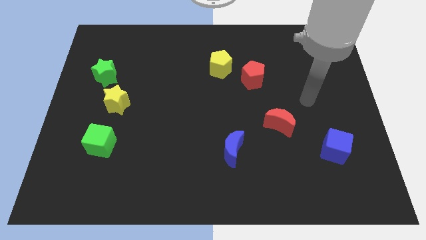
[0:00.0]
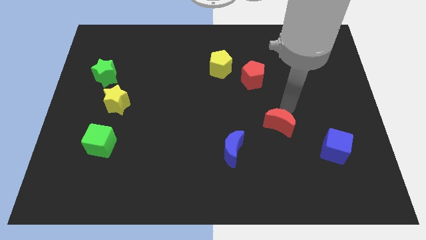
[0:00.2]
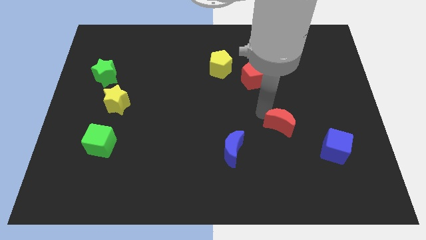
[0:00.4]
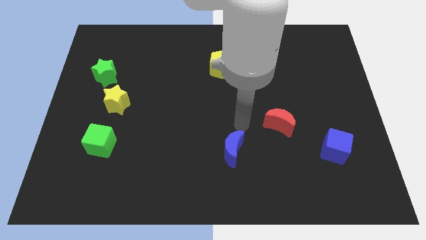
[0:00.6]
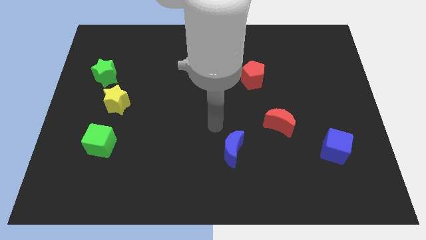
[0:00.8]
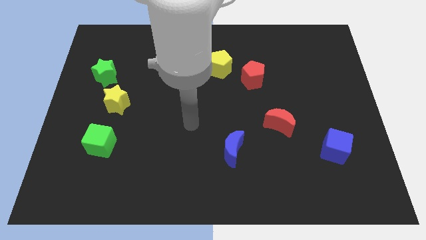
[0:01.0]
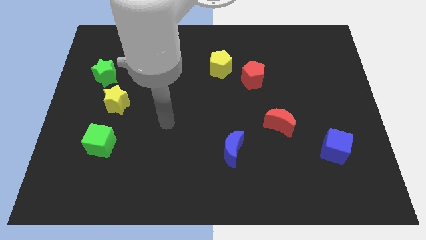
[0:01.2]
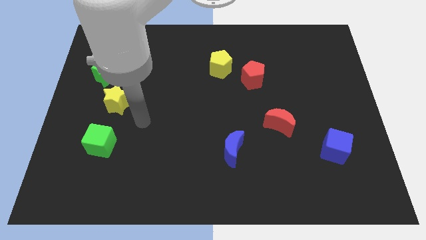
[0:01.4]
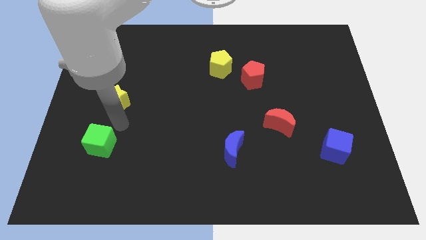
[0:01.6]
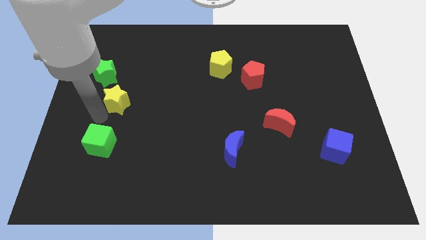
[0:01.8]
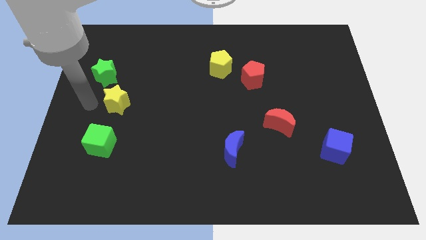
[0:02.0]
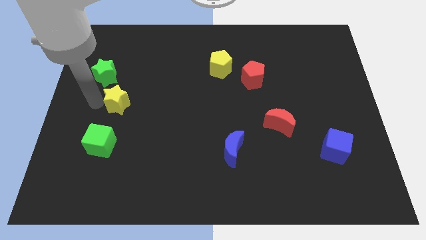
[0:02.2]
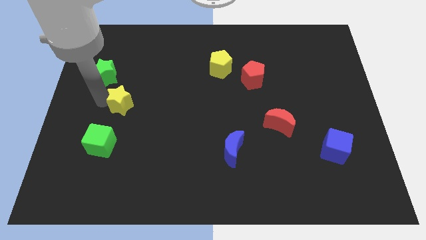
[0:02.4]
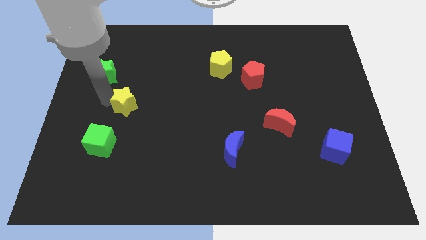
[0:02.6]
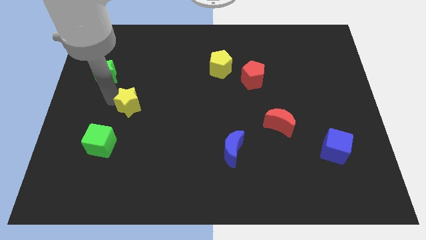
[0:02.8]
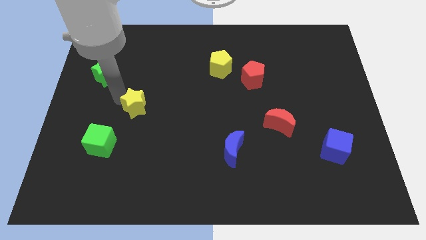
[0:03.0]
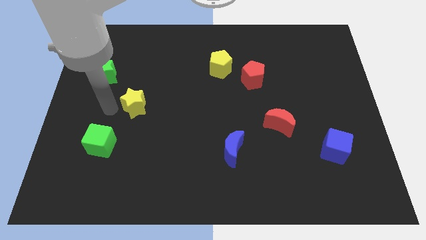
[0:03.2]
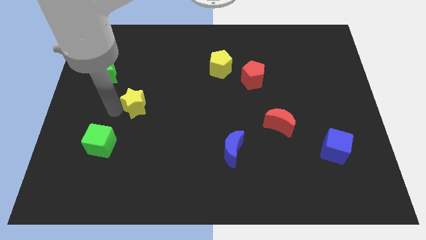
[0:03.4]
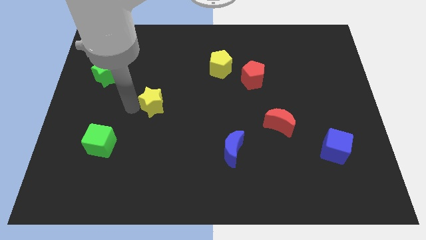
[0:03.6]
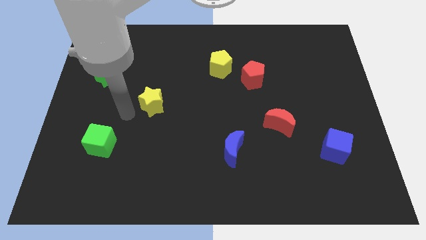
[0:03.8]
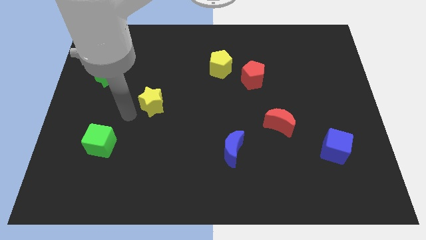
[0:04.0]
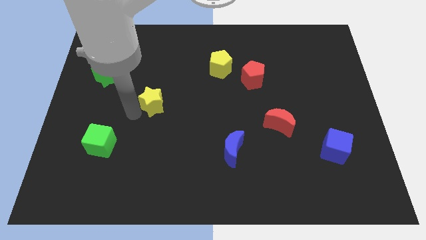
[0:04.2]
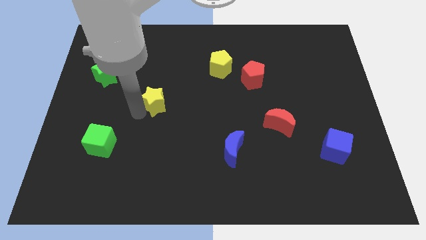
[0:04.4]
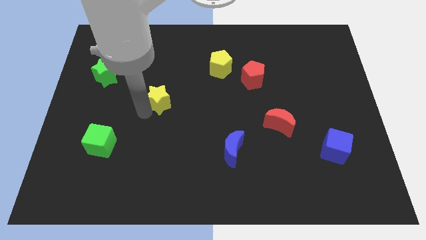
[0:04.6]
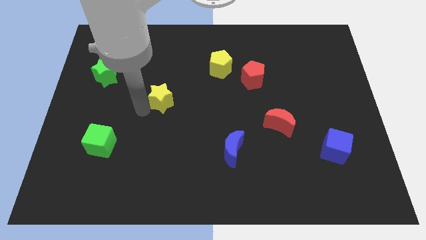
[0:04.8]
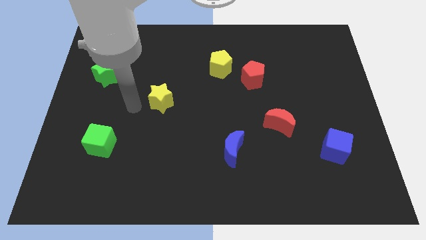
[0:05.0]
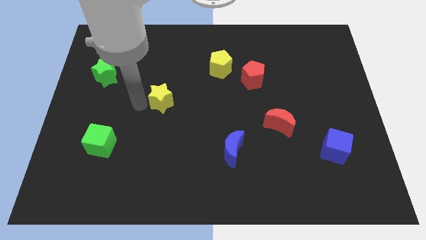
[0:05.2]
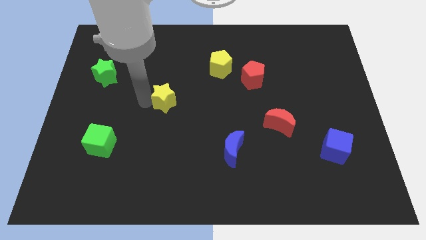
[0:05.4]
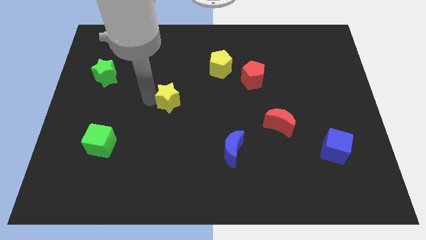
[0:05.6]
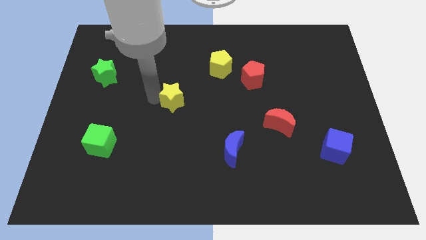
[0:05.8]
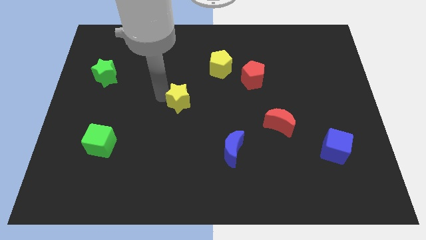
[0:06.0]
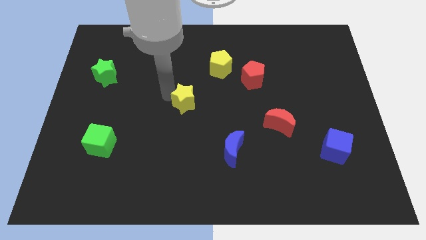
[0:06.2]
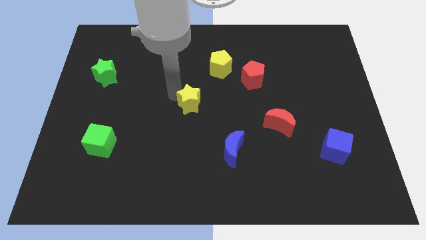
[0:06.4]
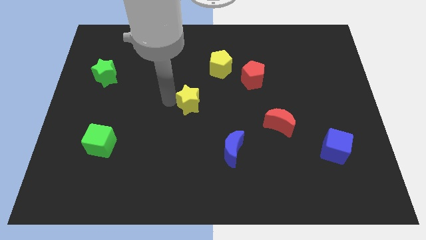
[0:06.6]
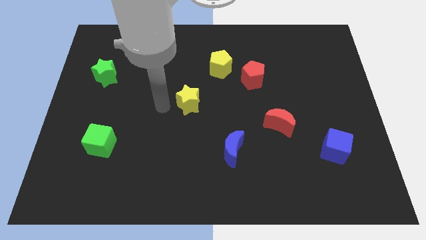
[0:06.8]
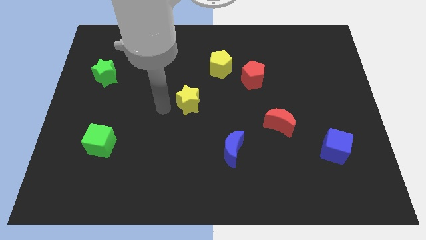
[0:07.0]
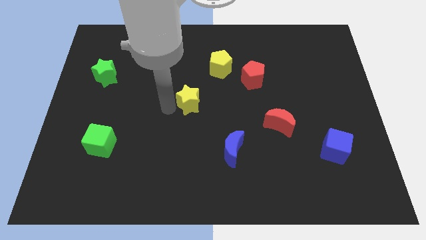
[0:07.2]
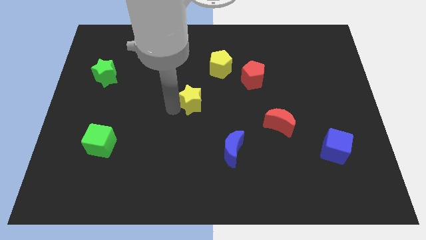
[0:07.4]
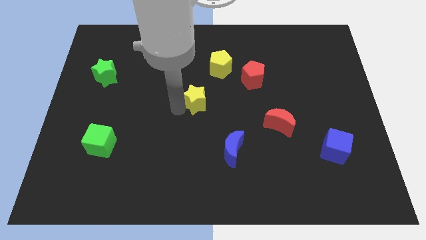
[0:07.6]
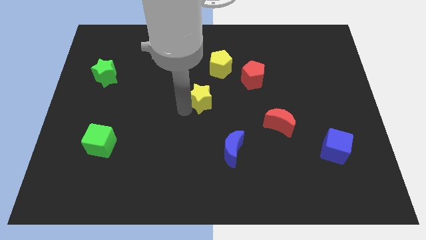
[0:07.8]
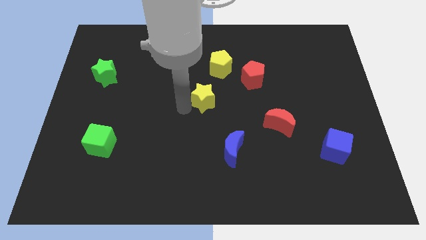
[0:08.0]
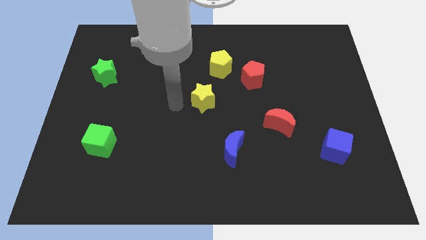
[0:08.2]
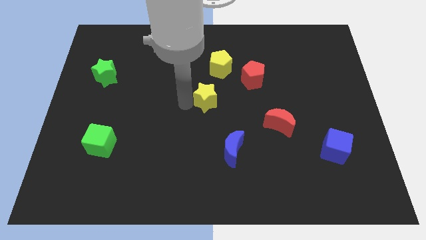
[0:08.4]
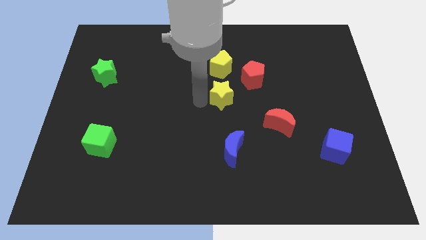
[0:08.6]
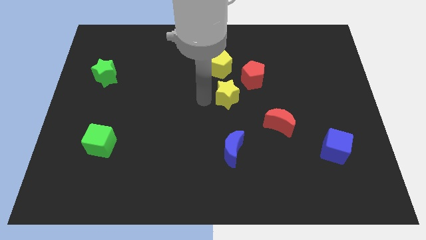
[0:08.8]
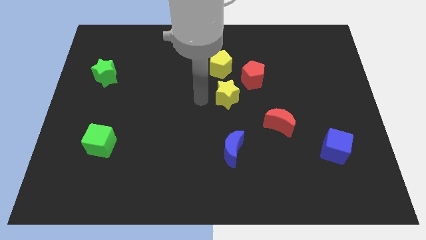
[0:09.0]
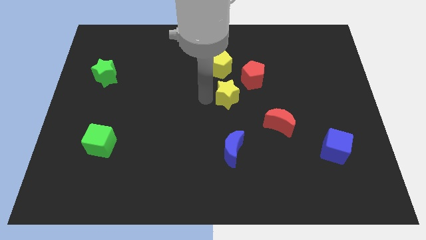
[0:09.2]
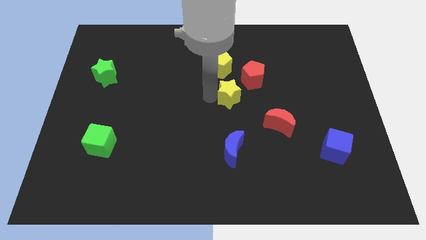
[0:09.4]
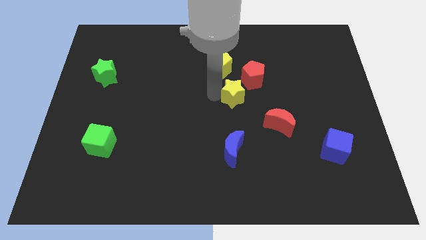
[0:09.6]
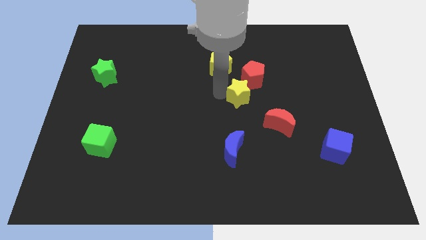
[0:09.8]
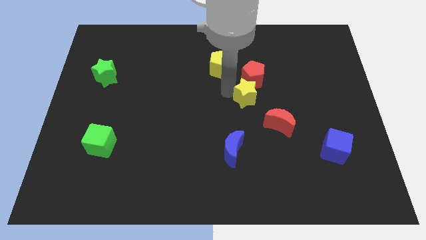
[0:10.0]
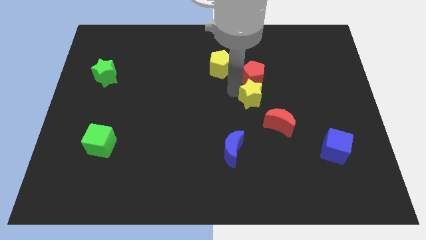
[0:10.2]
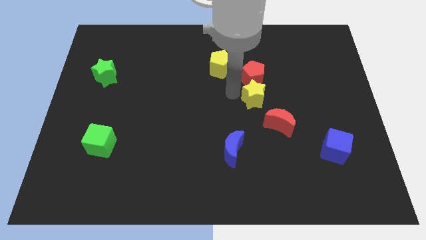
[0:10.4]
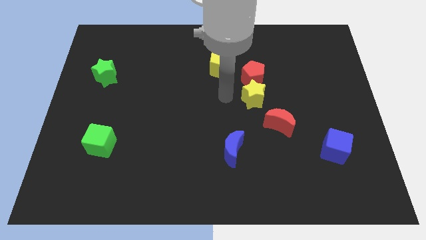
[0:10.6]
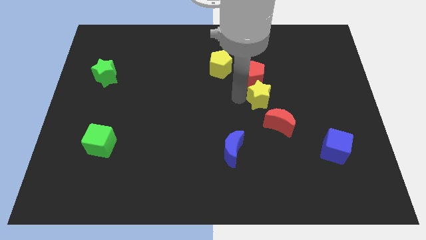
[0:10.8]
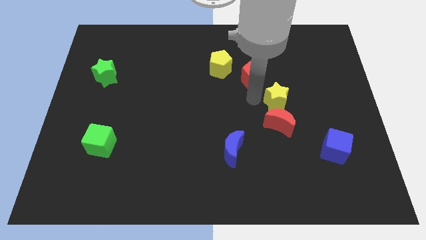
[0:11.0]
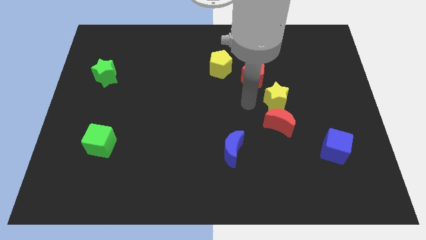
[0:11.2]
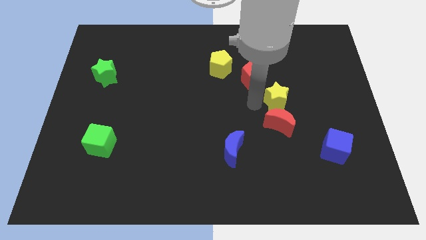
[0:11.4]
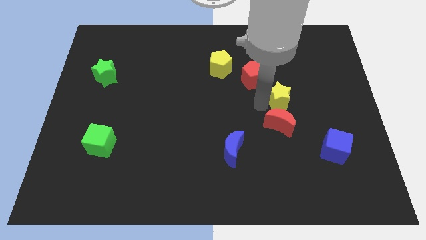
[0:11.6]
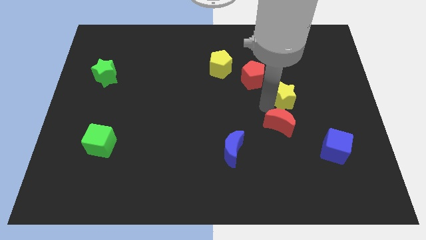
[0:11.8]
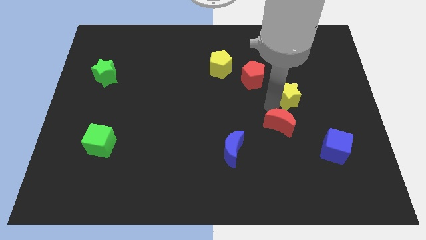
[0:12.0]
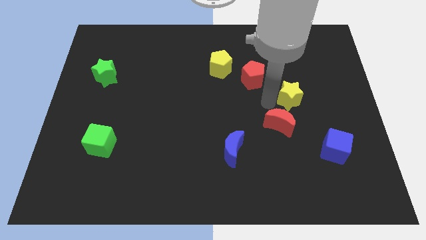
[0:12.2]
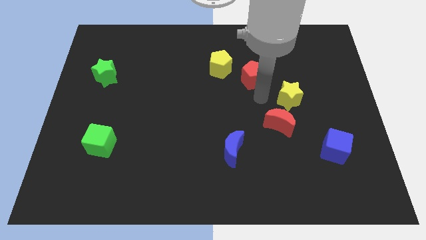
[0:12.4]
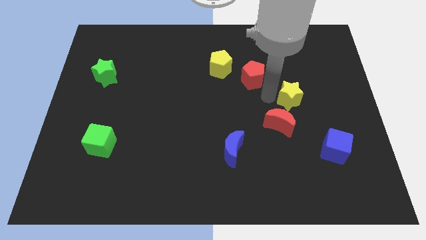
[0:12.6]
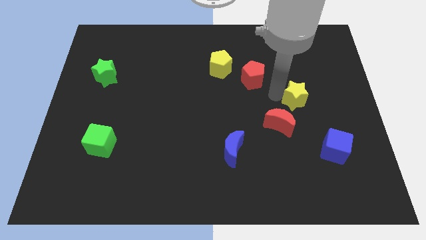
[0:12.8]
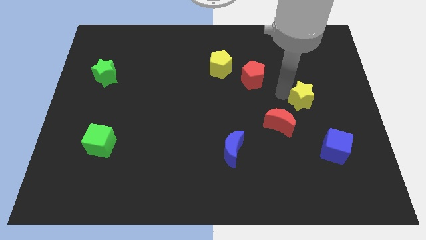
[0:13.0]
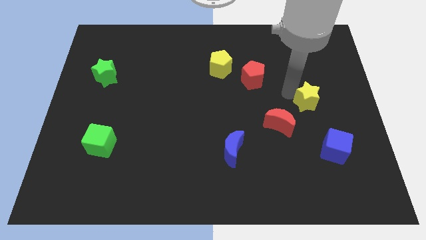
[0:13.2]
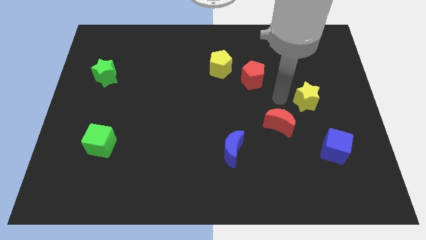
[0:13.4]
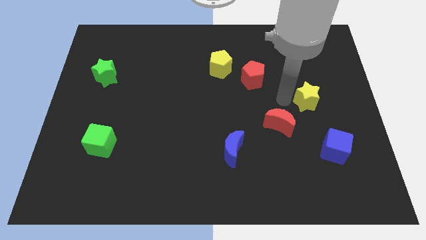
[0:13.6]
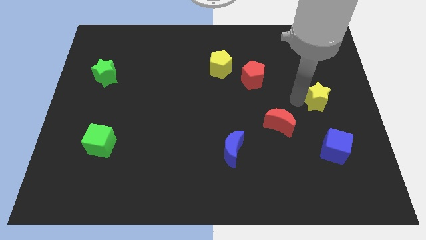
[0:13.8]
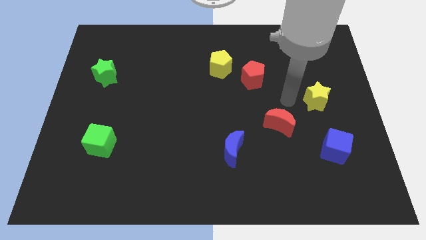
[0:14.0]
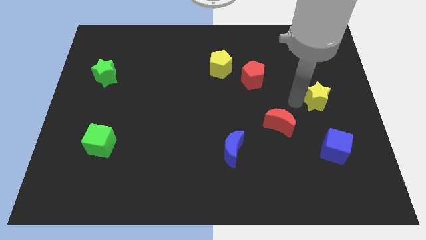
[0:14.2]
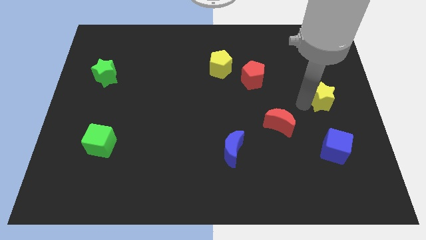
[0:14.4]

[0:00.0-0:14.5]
move the yellow star to the right side
